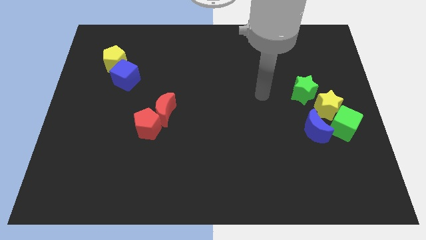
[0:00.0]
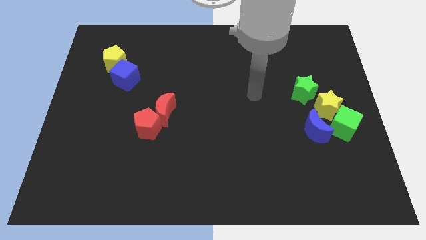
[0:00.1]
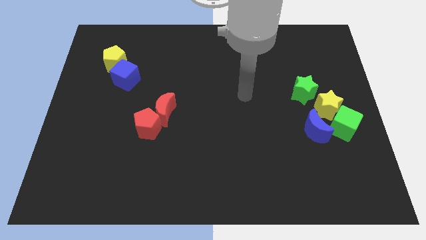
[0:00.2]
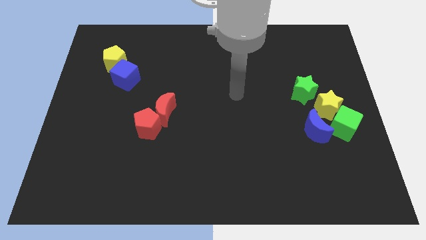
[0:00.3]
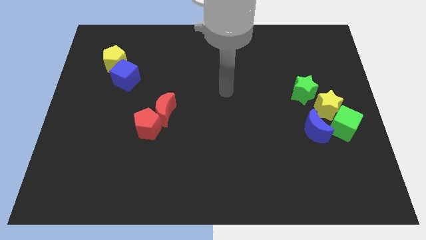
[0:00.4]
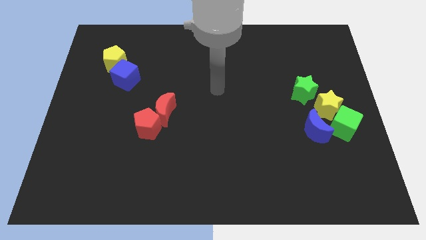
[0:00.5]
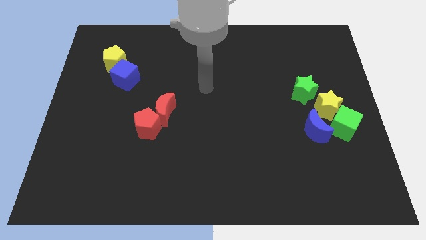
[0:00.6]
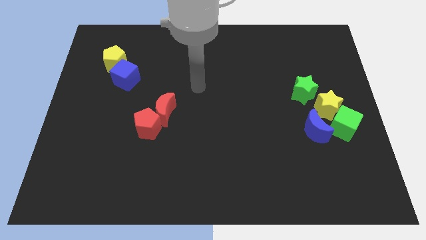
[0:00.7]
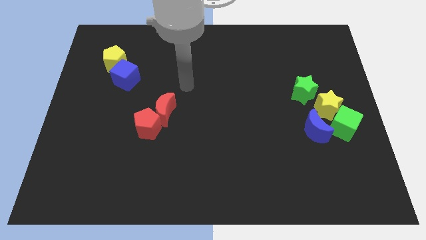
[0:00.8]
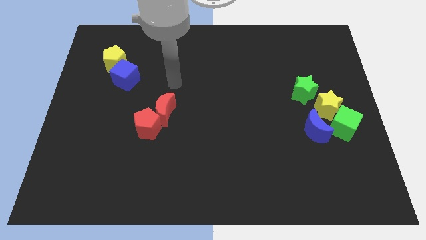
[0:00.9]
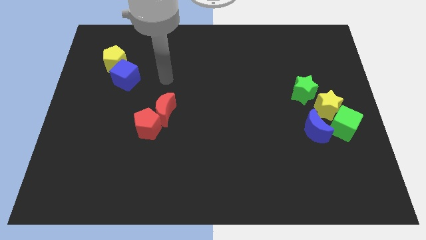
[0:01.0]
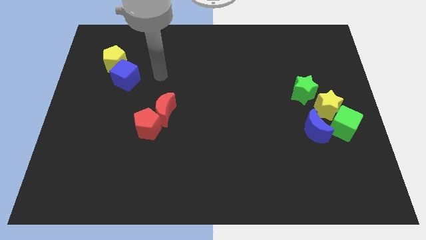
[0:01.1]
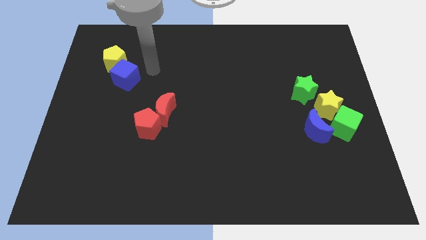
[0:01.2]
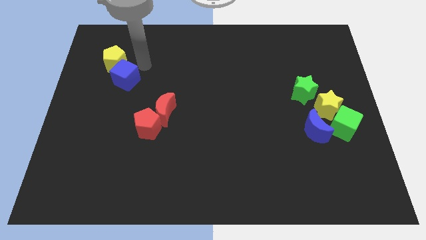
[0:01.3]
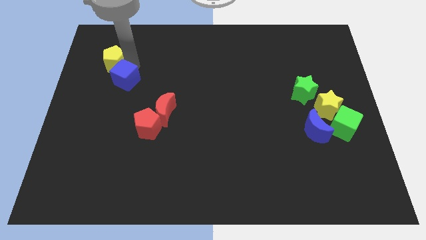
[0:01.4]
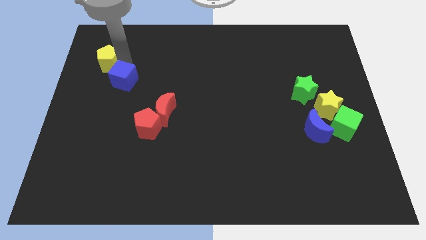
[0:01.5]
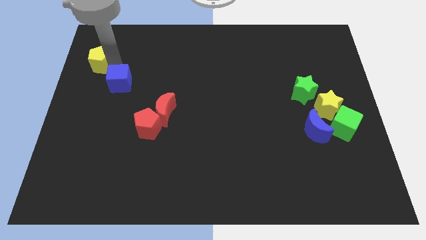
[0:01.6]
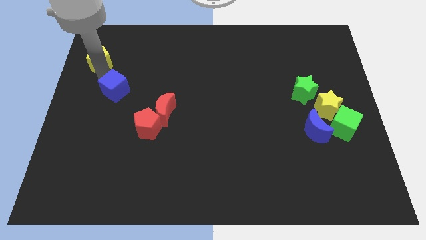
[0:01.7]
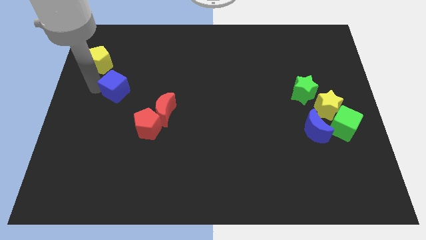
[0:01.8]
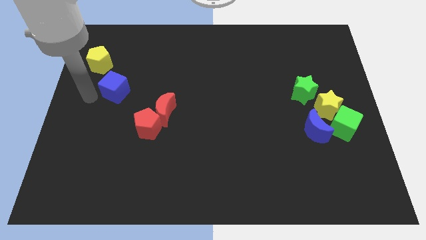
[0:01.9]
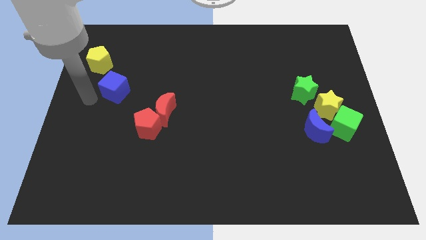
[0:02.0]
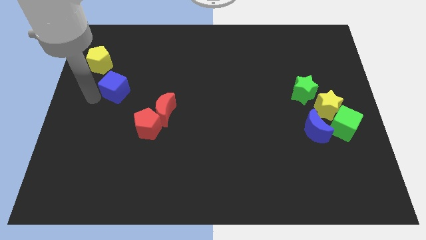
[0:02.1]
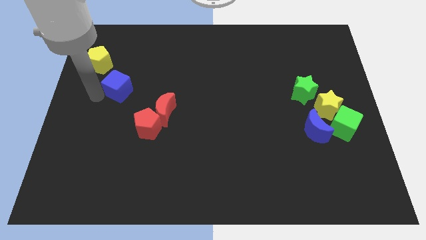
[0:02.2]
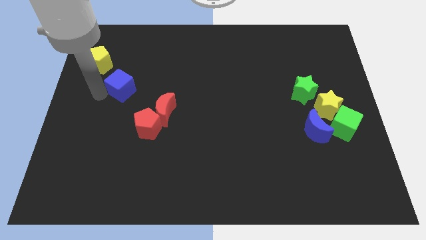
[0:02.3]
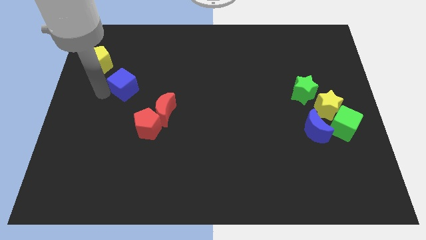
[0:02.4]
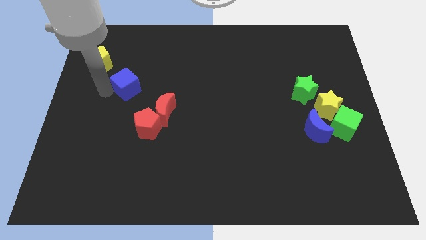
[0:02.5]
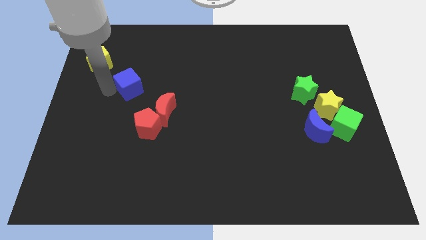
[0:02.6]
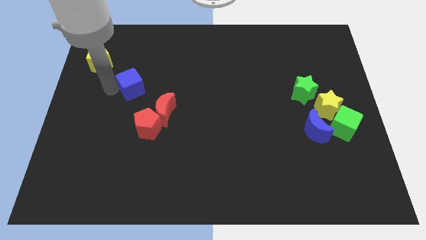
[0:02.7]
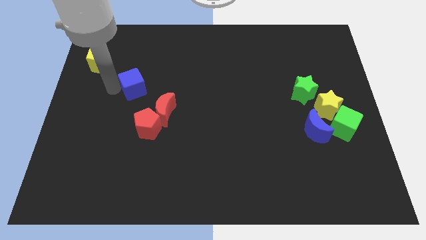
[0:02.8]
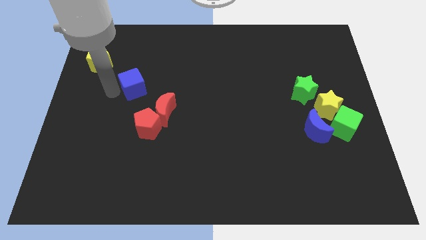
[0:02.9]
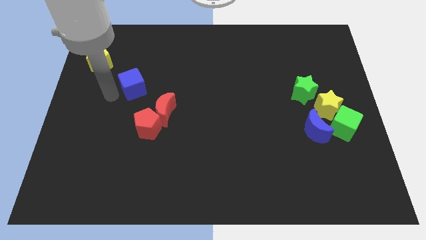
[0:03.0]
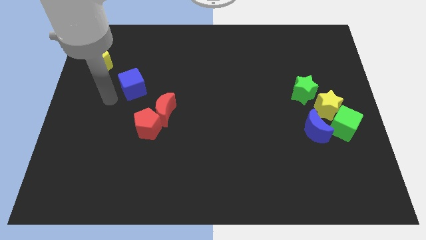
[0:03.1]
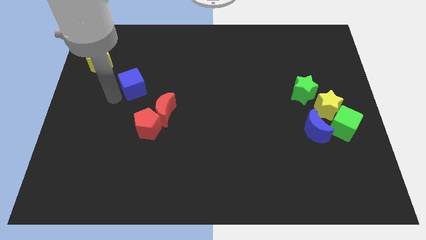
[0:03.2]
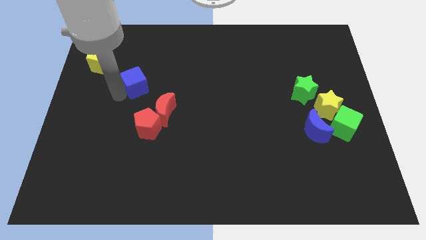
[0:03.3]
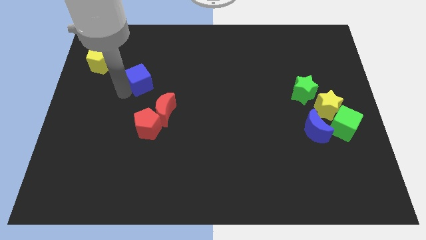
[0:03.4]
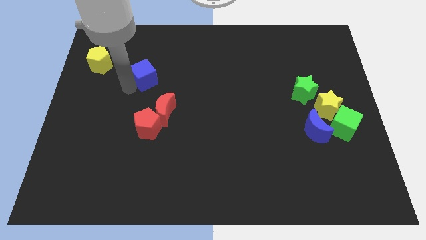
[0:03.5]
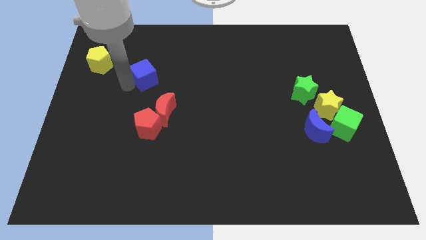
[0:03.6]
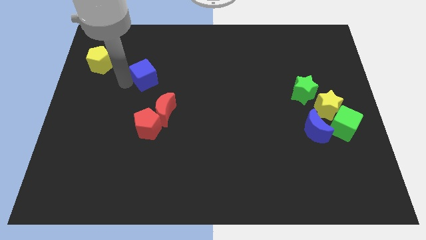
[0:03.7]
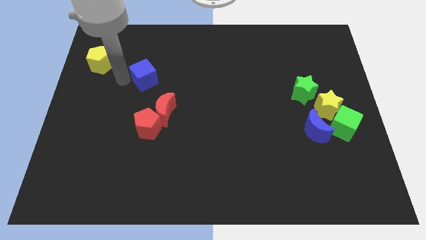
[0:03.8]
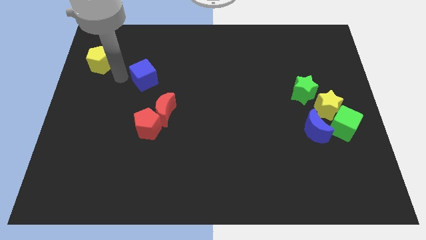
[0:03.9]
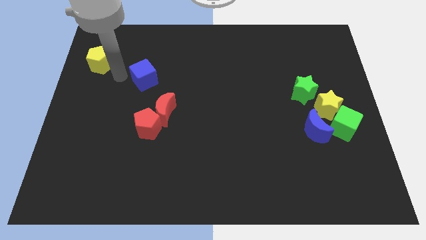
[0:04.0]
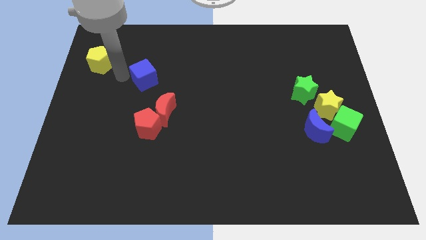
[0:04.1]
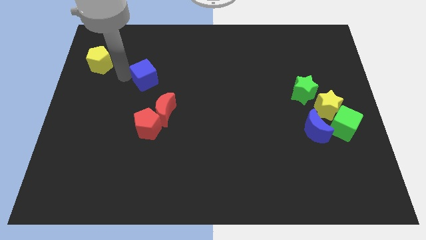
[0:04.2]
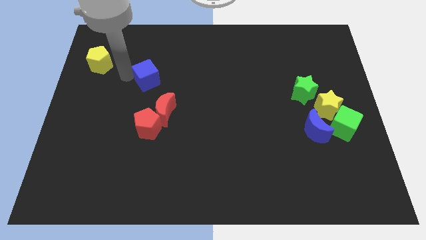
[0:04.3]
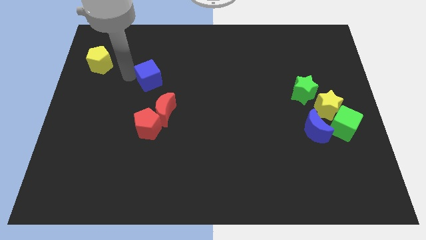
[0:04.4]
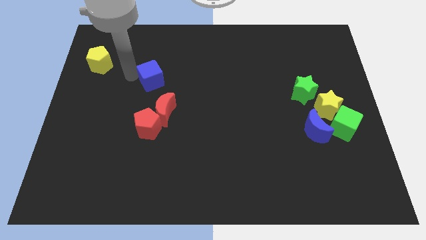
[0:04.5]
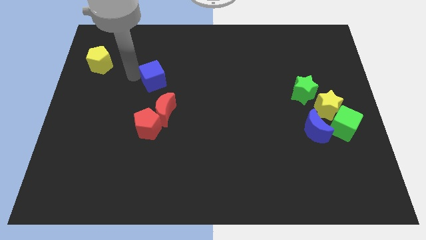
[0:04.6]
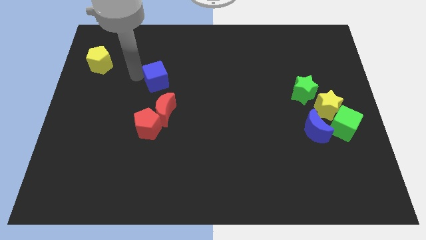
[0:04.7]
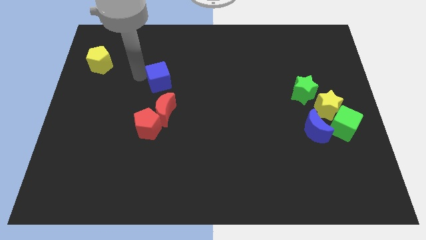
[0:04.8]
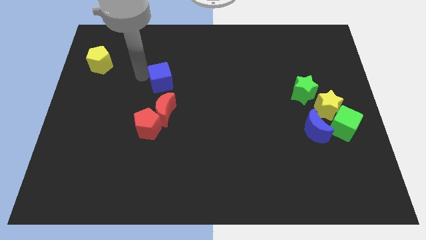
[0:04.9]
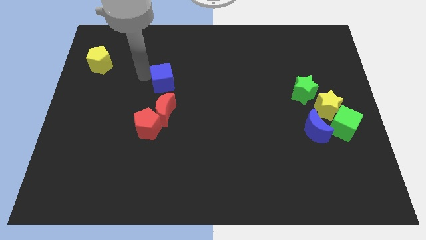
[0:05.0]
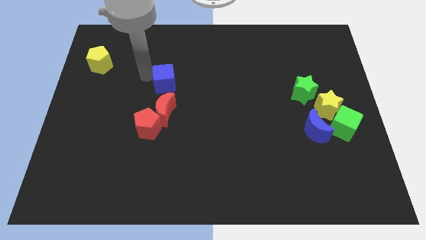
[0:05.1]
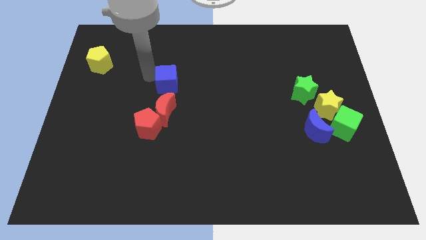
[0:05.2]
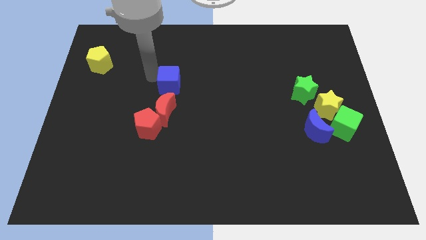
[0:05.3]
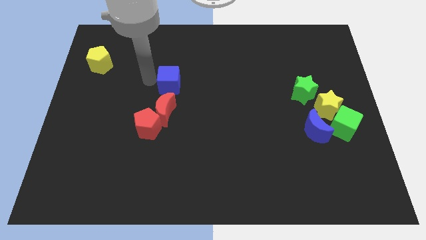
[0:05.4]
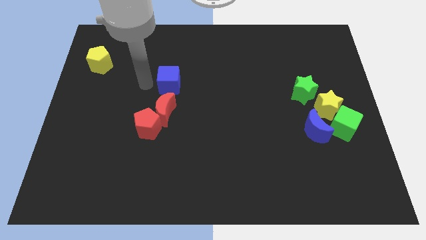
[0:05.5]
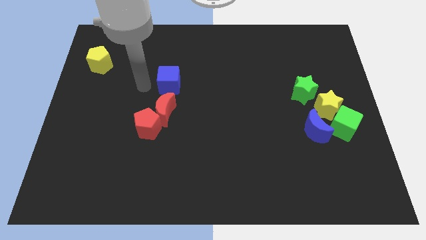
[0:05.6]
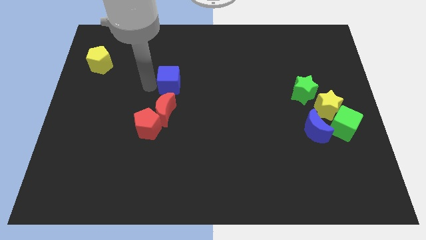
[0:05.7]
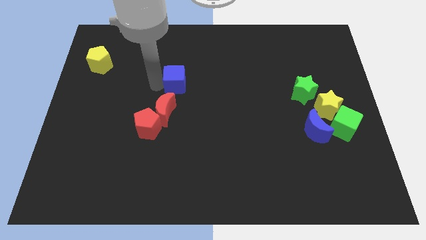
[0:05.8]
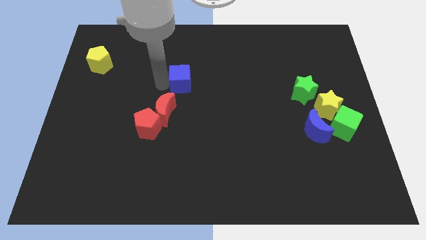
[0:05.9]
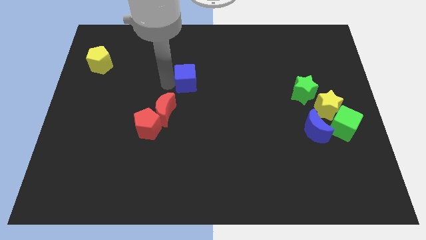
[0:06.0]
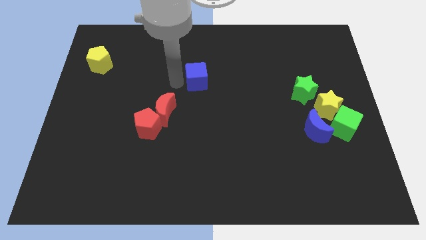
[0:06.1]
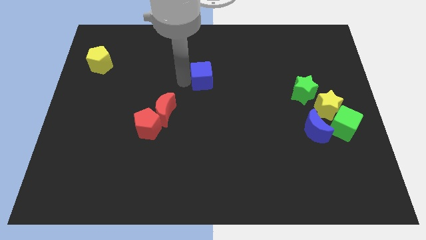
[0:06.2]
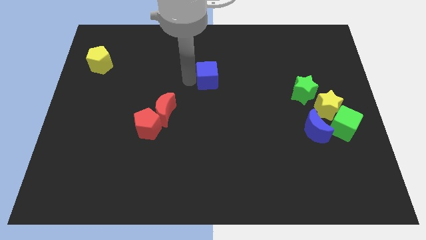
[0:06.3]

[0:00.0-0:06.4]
slide the blue cube right

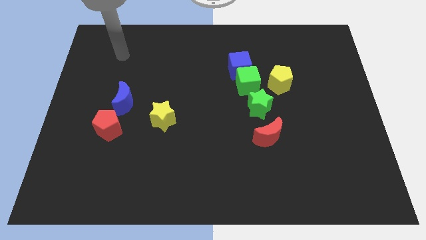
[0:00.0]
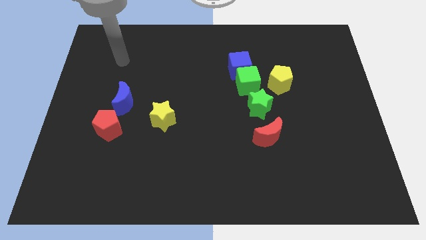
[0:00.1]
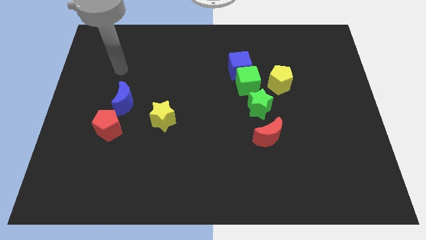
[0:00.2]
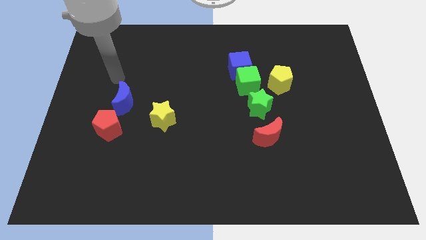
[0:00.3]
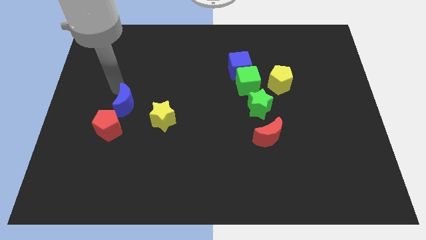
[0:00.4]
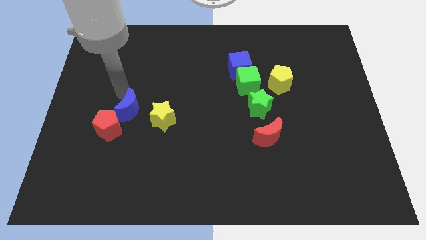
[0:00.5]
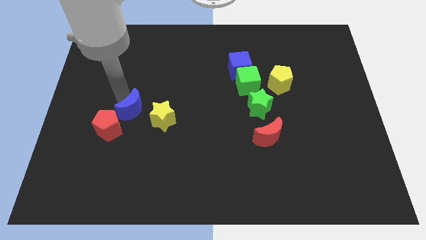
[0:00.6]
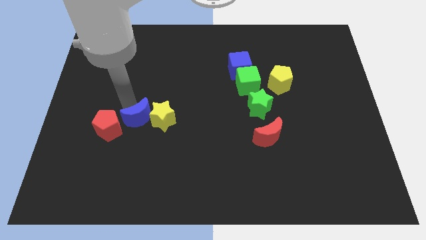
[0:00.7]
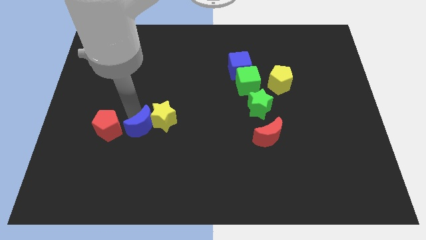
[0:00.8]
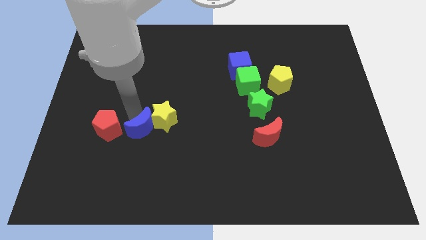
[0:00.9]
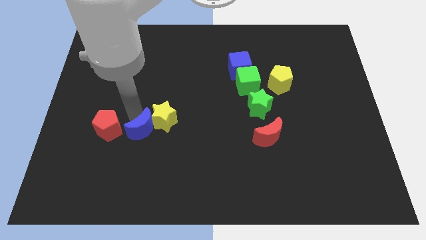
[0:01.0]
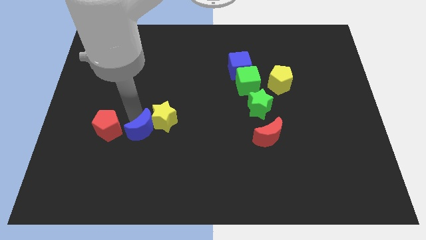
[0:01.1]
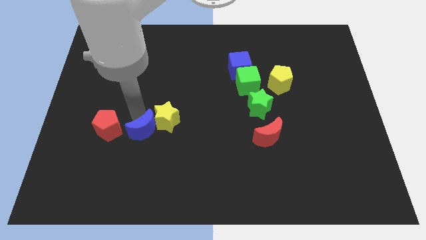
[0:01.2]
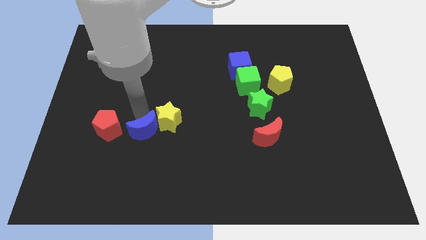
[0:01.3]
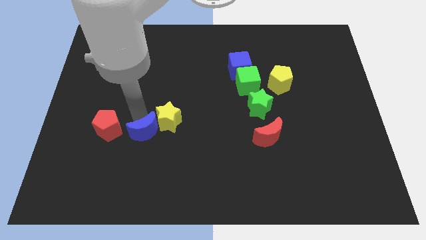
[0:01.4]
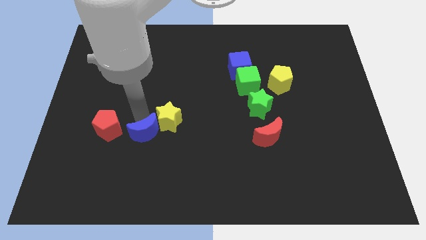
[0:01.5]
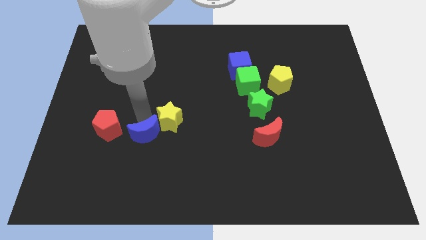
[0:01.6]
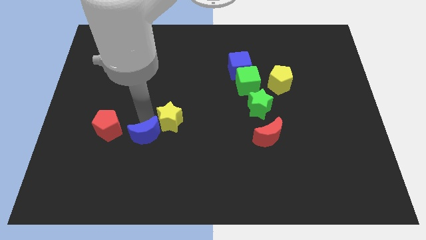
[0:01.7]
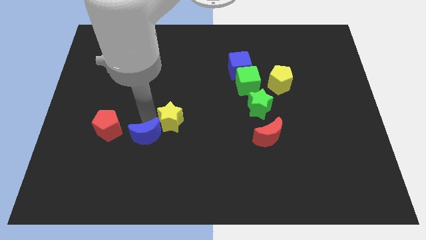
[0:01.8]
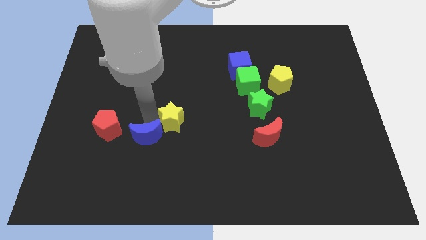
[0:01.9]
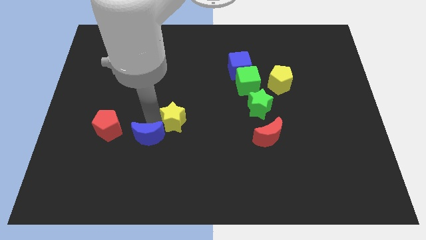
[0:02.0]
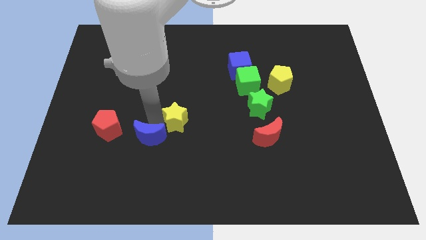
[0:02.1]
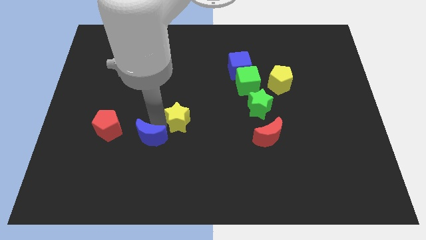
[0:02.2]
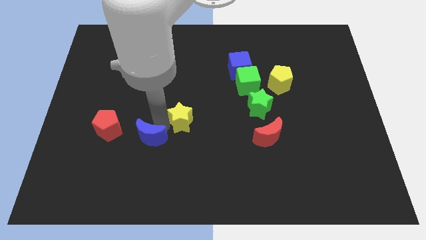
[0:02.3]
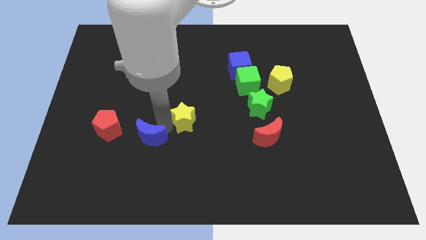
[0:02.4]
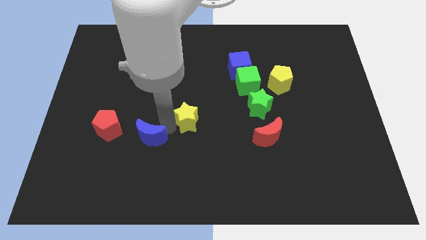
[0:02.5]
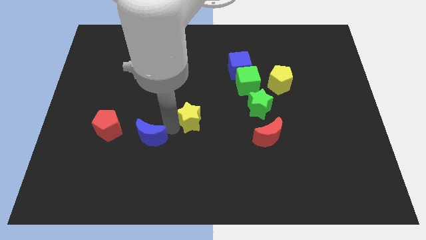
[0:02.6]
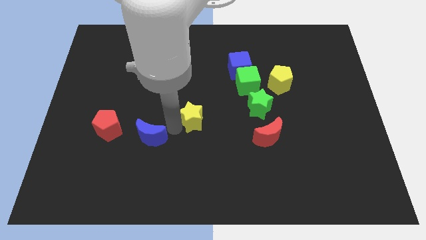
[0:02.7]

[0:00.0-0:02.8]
slightly slide the yellow star to the right
